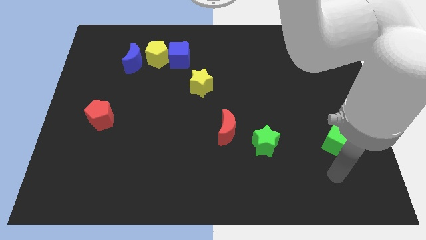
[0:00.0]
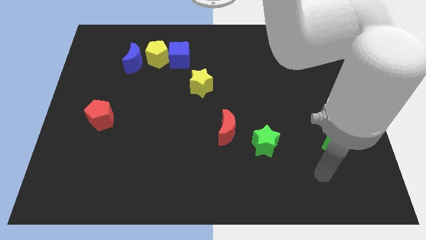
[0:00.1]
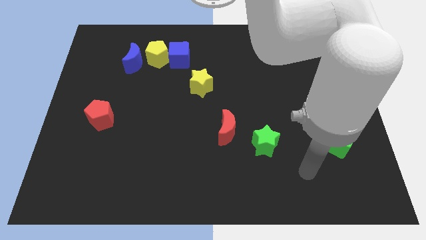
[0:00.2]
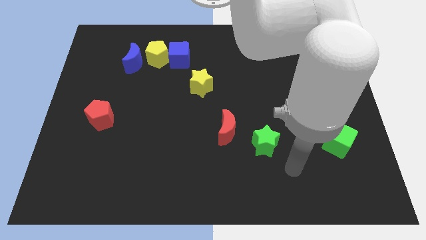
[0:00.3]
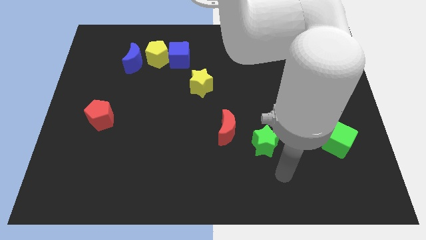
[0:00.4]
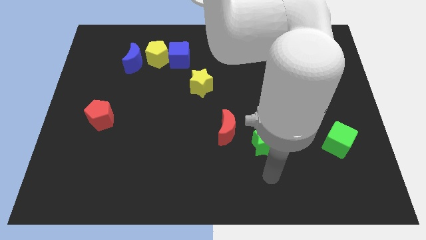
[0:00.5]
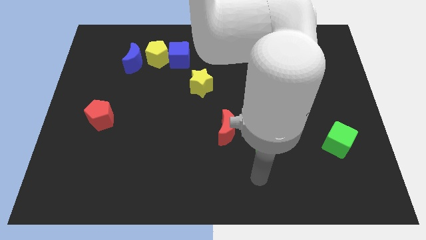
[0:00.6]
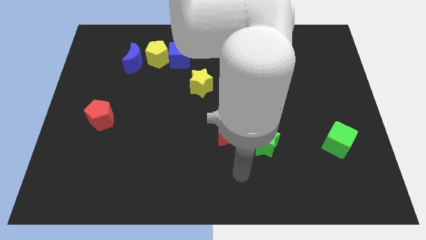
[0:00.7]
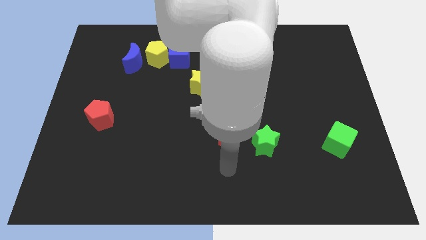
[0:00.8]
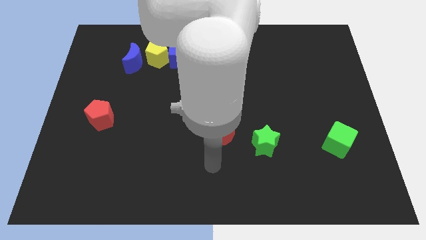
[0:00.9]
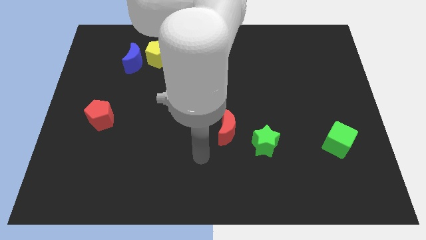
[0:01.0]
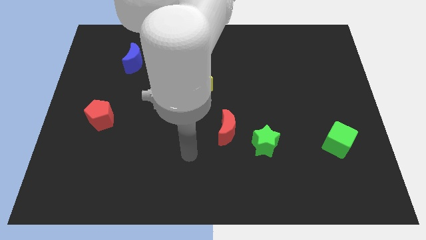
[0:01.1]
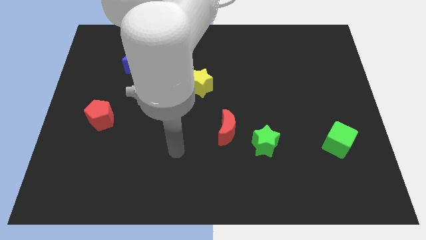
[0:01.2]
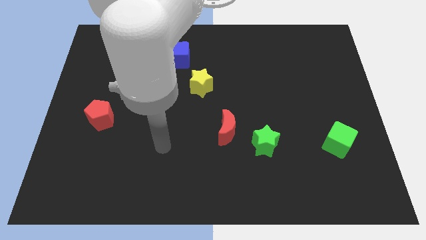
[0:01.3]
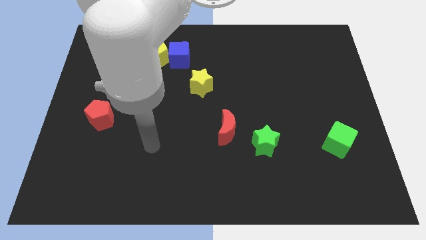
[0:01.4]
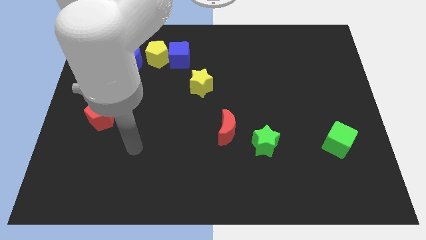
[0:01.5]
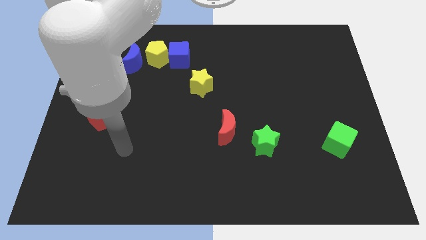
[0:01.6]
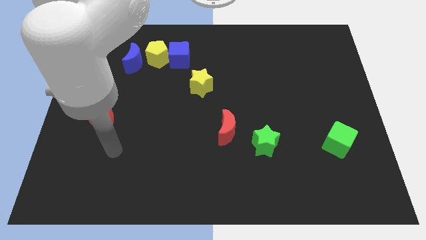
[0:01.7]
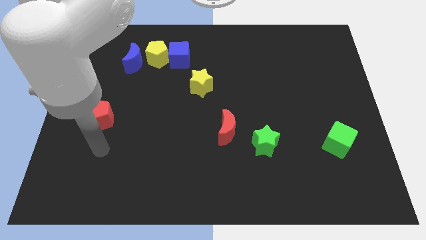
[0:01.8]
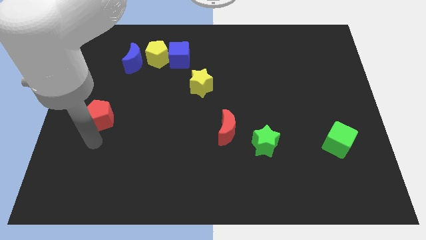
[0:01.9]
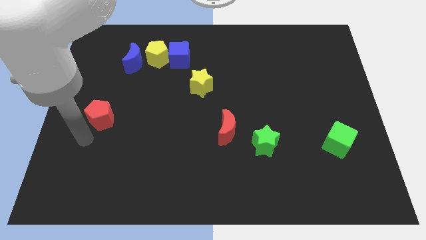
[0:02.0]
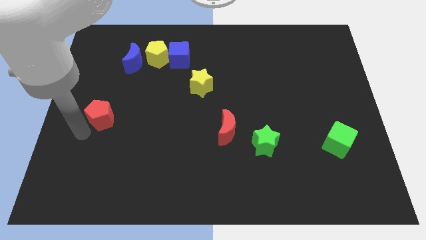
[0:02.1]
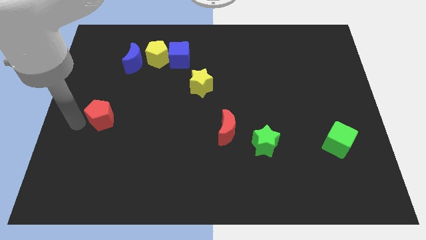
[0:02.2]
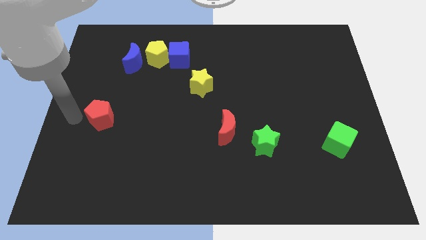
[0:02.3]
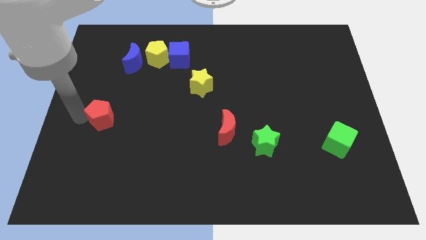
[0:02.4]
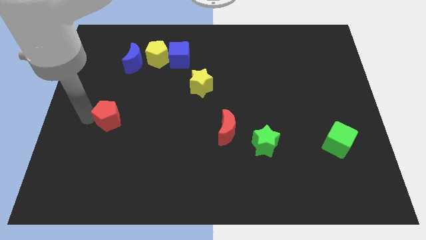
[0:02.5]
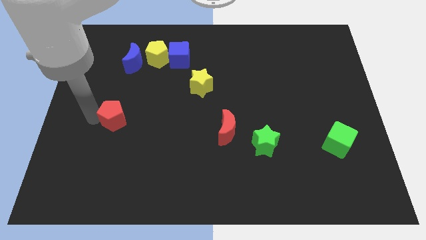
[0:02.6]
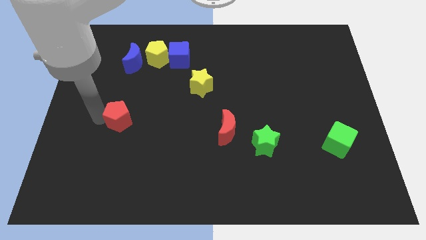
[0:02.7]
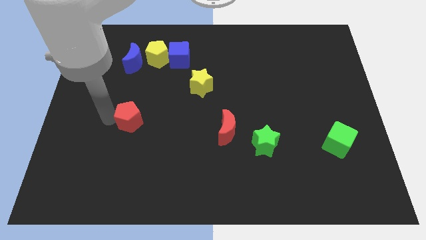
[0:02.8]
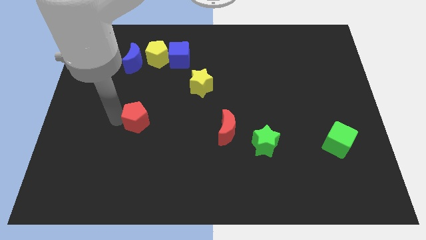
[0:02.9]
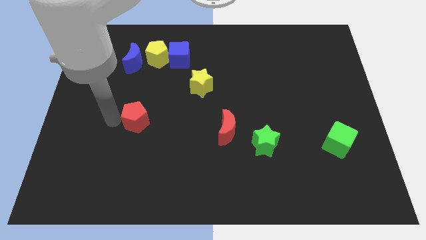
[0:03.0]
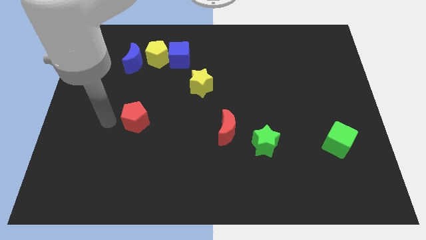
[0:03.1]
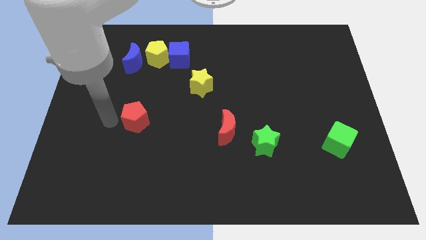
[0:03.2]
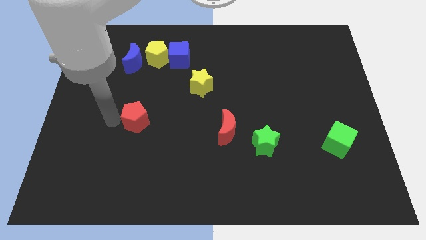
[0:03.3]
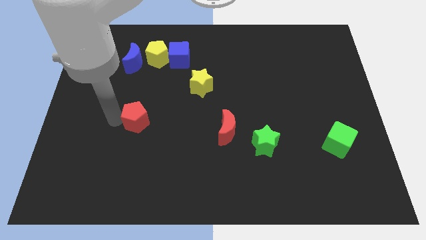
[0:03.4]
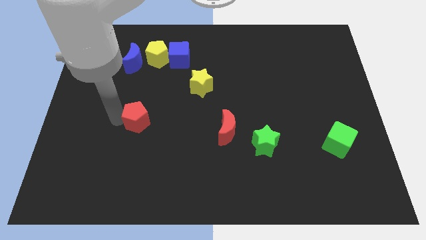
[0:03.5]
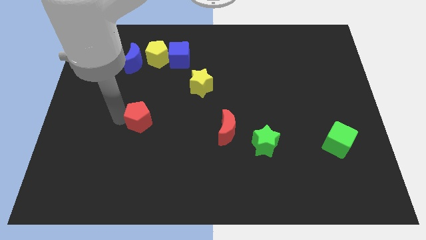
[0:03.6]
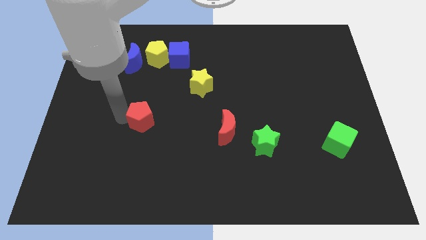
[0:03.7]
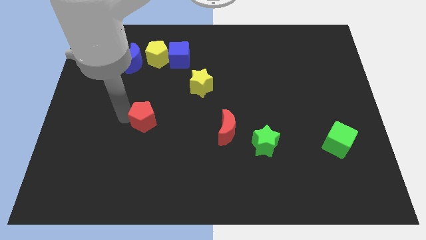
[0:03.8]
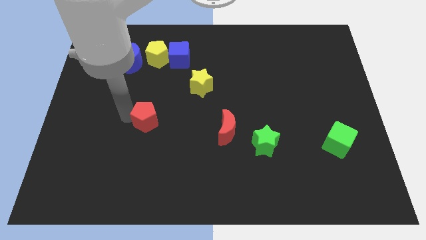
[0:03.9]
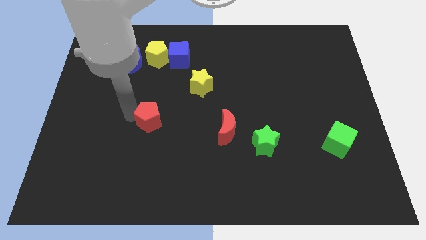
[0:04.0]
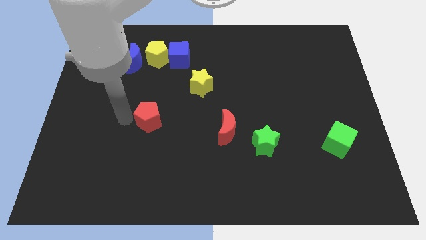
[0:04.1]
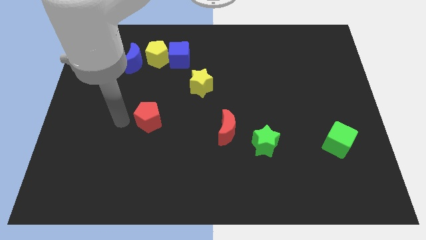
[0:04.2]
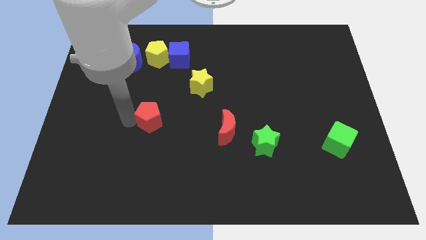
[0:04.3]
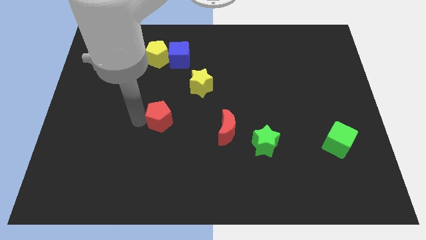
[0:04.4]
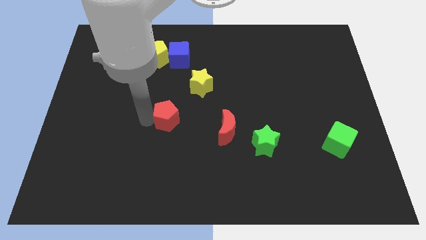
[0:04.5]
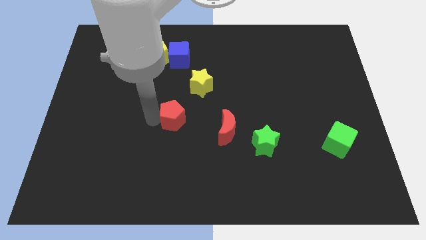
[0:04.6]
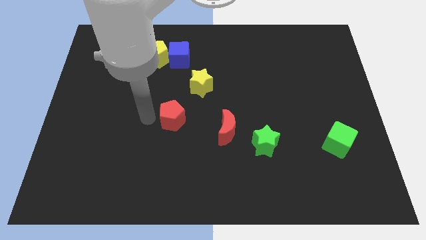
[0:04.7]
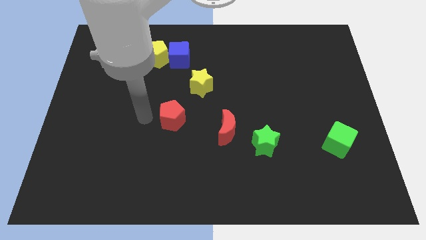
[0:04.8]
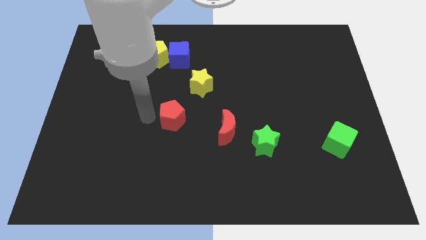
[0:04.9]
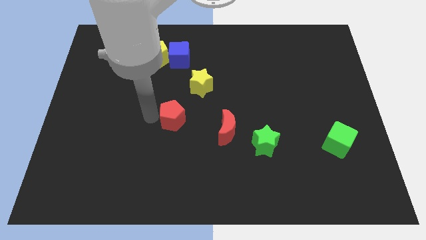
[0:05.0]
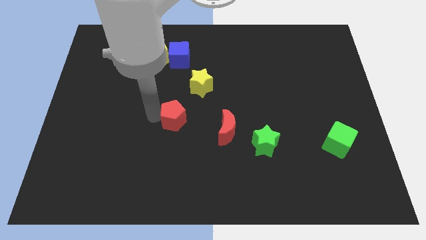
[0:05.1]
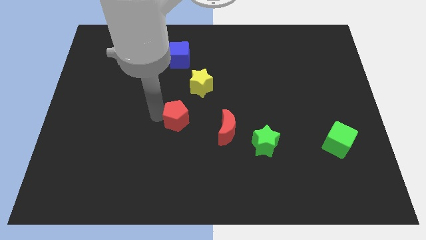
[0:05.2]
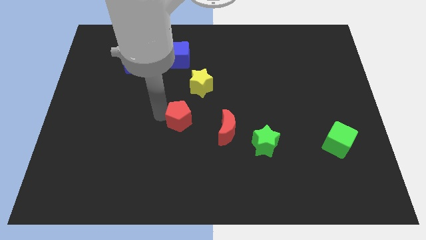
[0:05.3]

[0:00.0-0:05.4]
slide the red pentagon to the bottom side of the yellow star

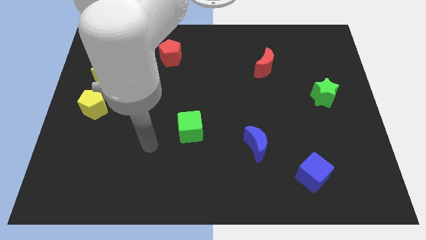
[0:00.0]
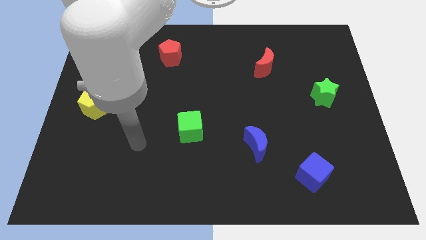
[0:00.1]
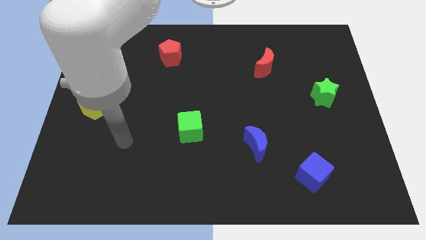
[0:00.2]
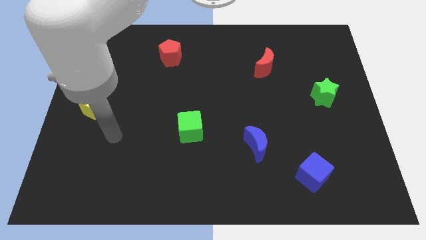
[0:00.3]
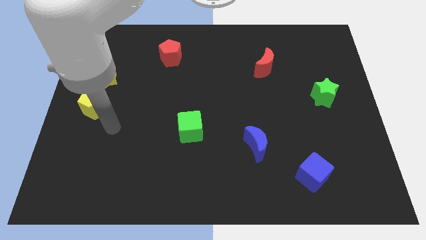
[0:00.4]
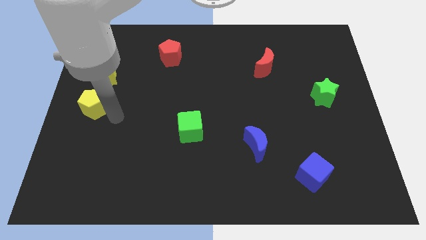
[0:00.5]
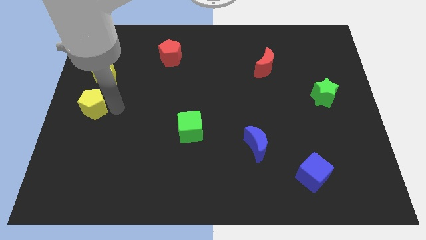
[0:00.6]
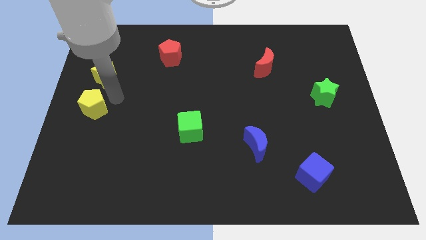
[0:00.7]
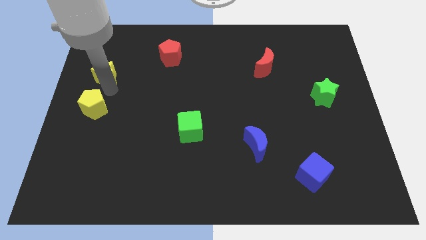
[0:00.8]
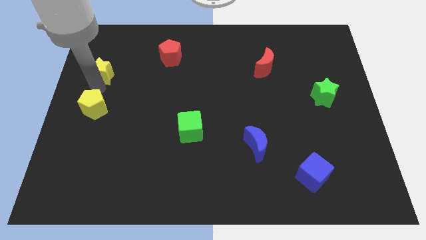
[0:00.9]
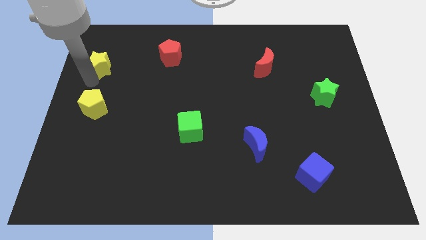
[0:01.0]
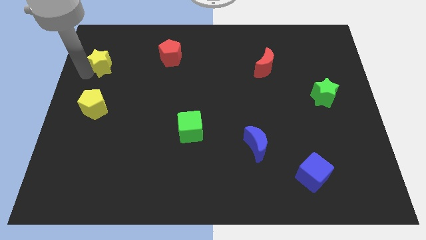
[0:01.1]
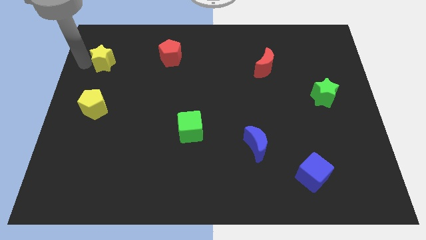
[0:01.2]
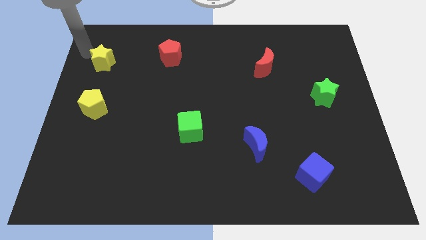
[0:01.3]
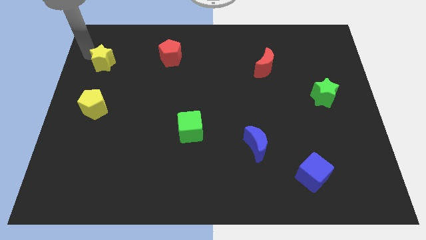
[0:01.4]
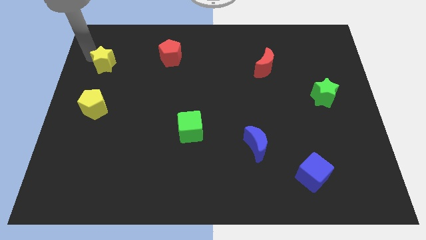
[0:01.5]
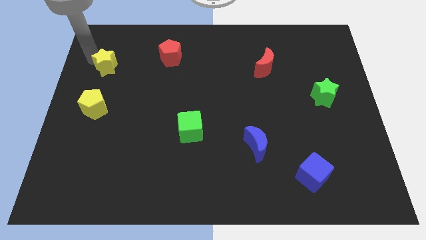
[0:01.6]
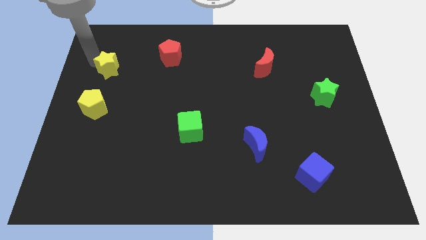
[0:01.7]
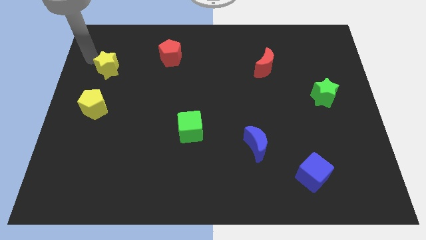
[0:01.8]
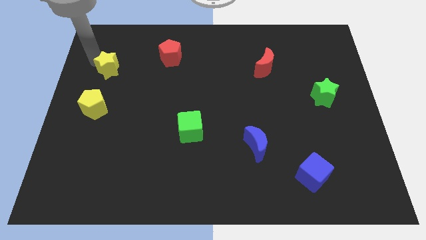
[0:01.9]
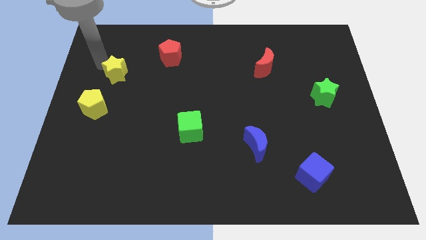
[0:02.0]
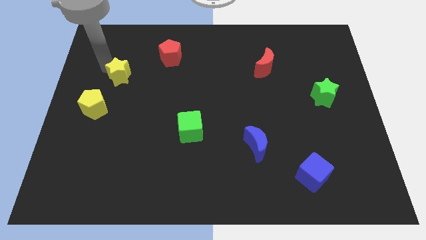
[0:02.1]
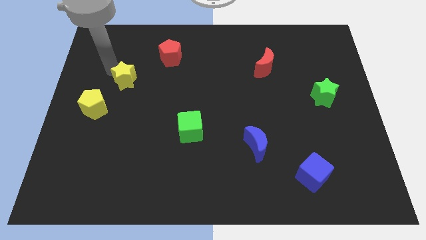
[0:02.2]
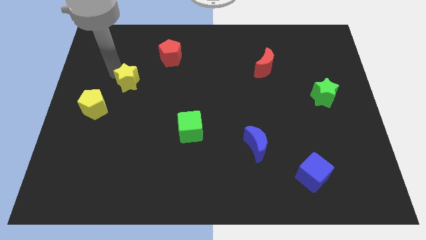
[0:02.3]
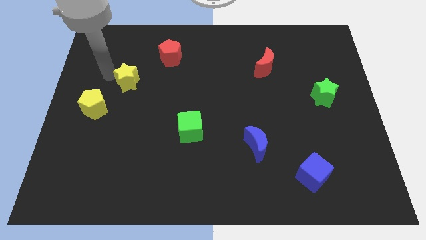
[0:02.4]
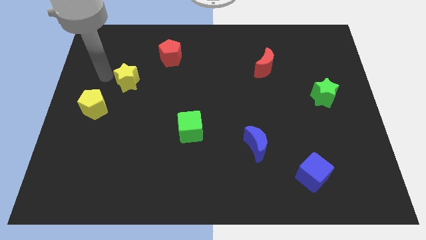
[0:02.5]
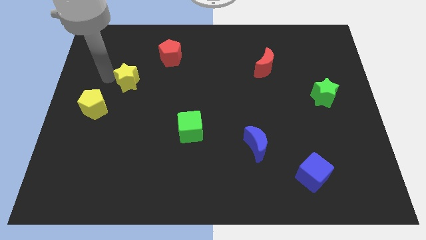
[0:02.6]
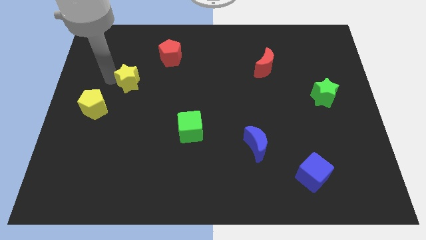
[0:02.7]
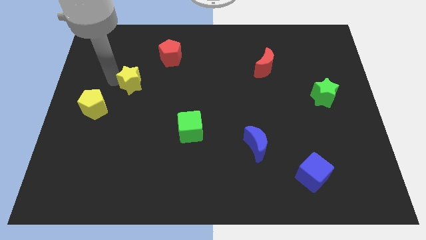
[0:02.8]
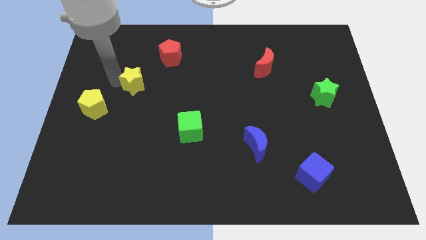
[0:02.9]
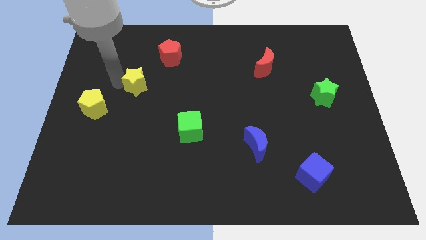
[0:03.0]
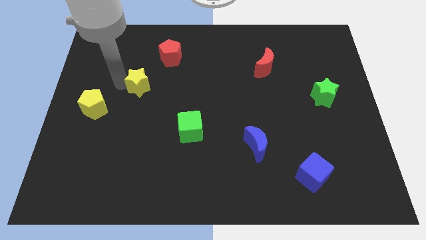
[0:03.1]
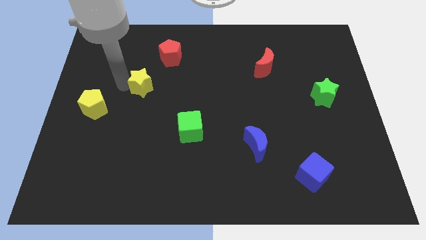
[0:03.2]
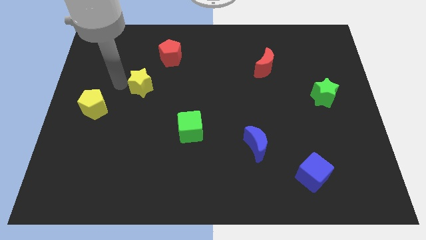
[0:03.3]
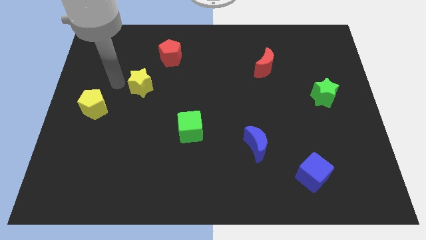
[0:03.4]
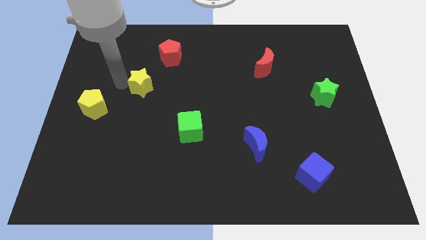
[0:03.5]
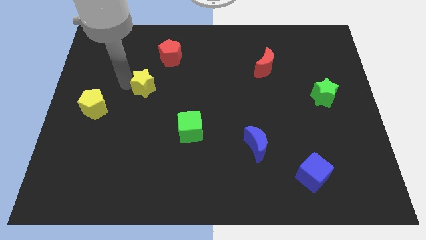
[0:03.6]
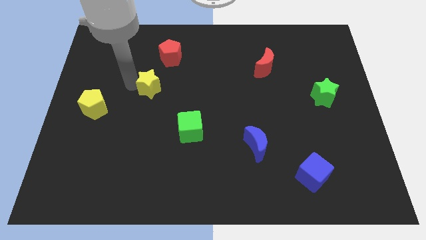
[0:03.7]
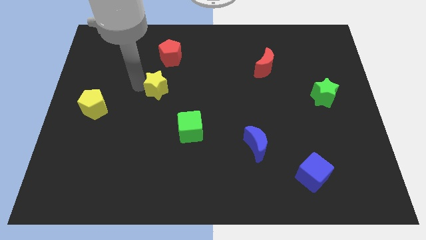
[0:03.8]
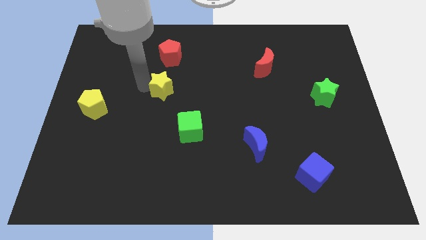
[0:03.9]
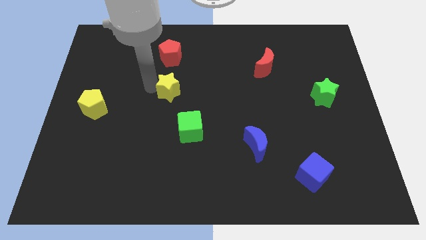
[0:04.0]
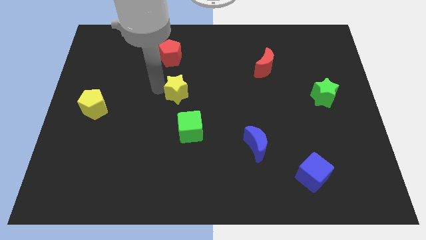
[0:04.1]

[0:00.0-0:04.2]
slide the yellow star to the top of the green cube
